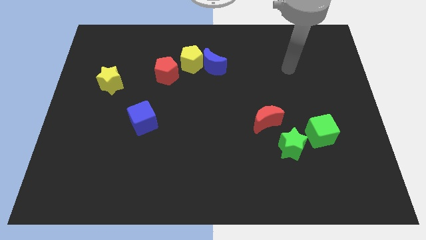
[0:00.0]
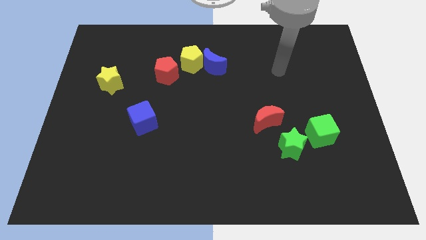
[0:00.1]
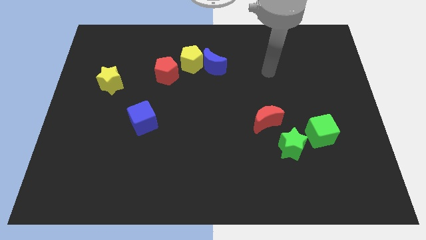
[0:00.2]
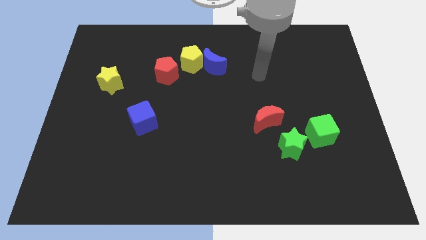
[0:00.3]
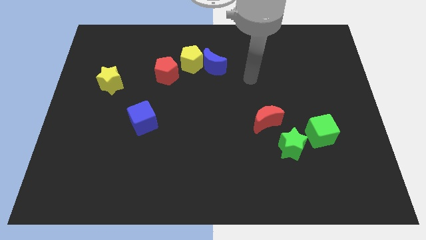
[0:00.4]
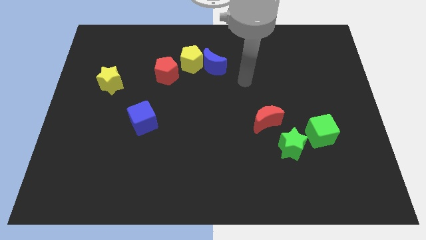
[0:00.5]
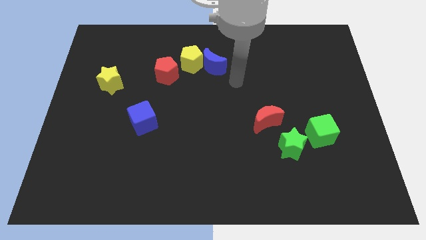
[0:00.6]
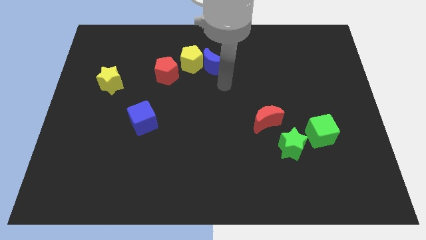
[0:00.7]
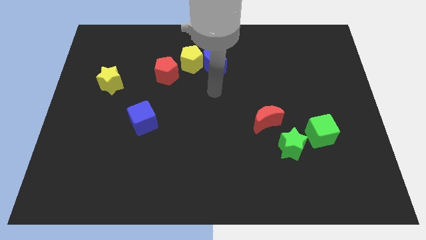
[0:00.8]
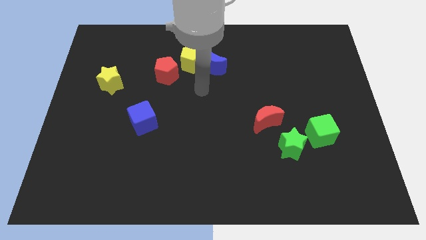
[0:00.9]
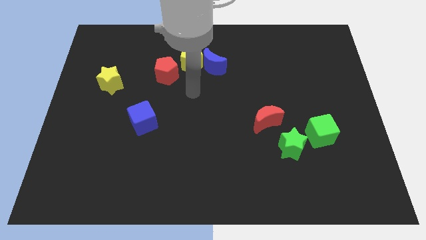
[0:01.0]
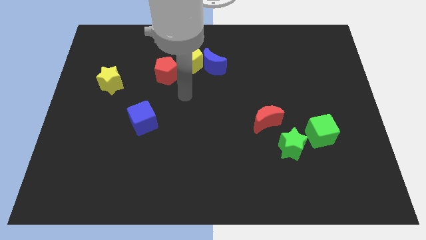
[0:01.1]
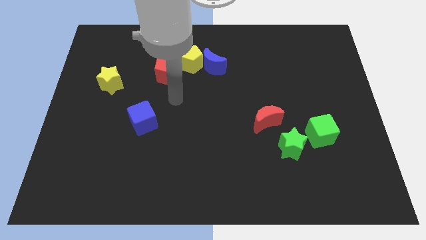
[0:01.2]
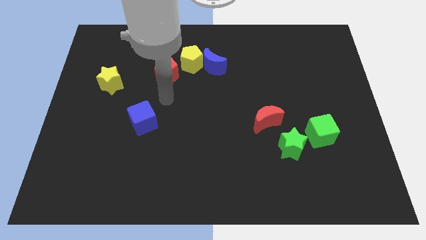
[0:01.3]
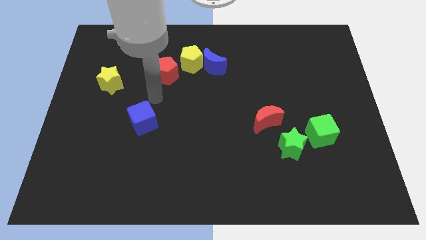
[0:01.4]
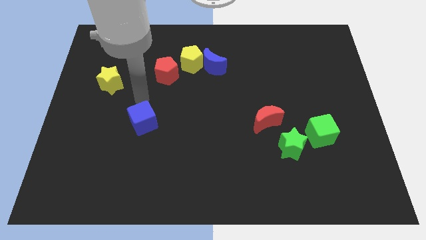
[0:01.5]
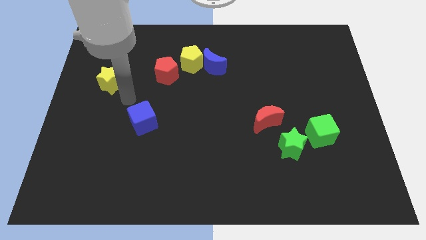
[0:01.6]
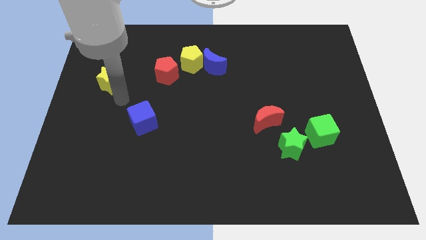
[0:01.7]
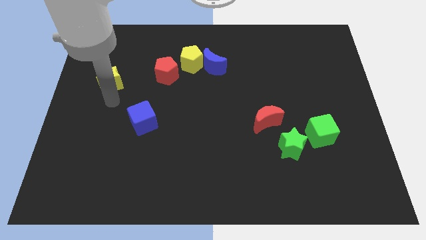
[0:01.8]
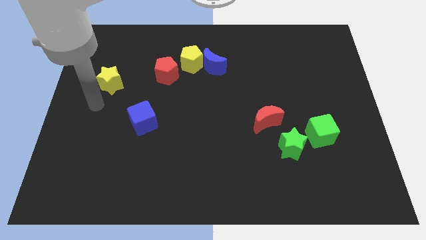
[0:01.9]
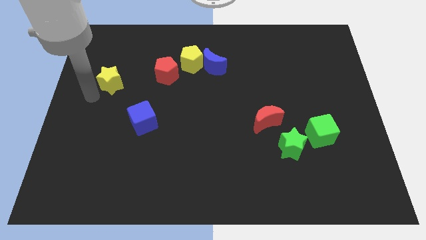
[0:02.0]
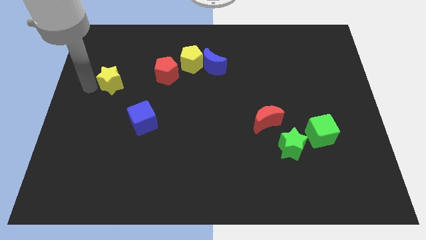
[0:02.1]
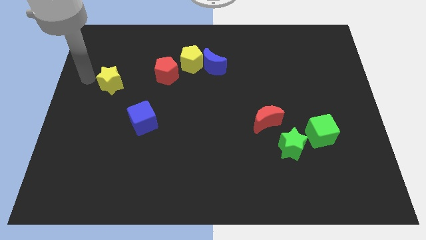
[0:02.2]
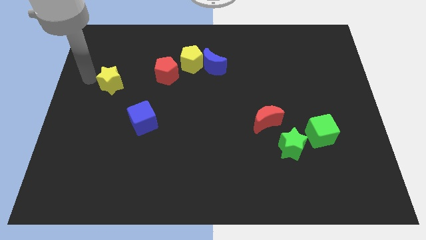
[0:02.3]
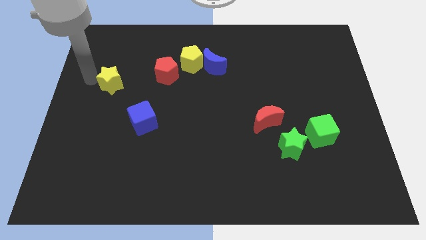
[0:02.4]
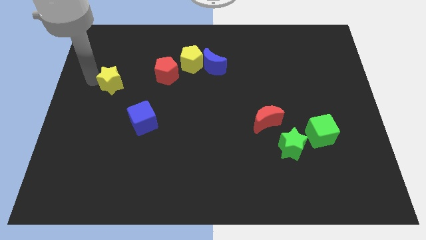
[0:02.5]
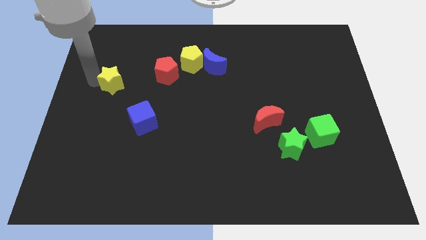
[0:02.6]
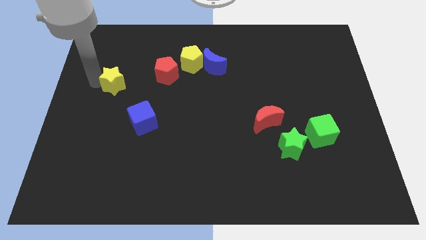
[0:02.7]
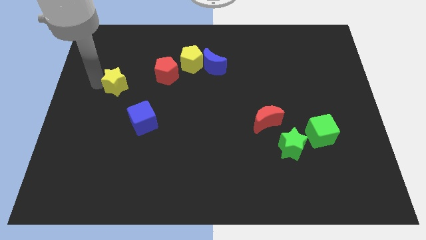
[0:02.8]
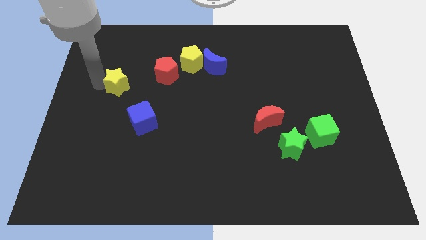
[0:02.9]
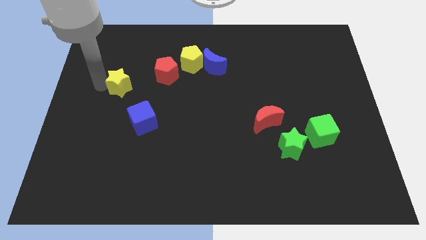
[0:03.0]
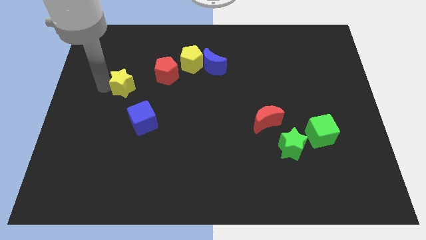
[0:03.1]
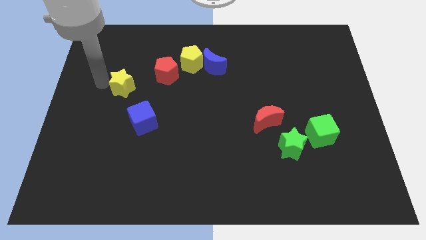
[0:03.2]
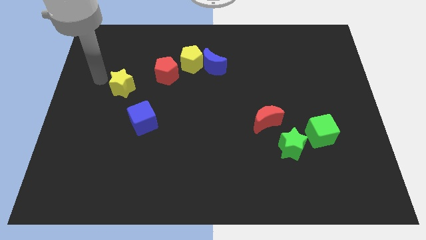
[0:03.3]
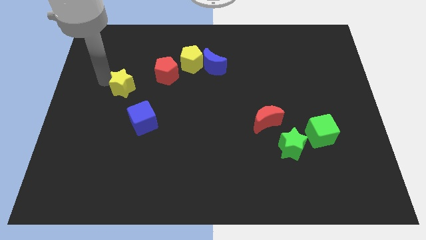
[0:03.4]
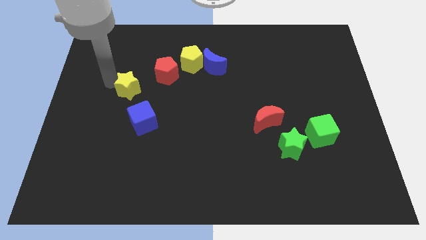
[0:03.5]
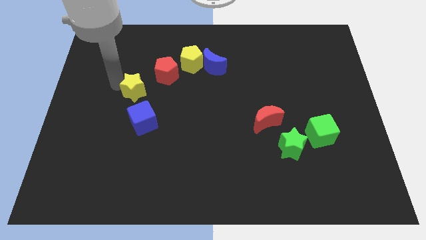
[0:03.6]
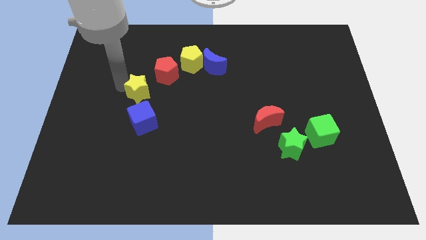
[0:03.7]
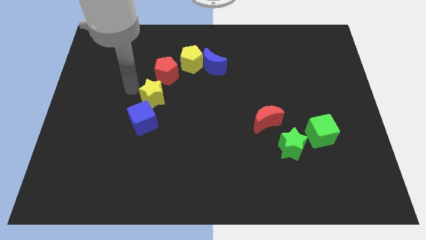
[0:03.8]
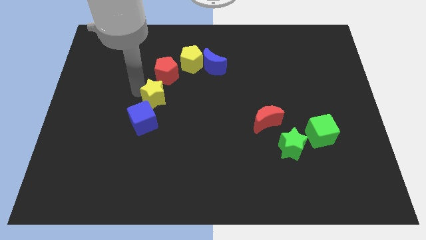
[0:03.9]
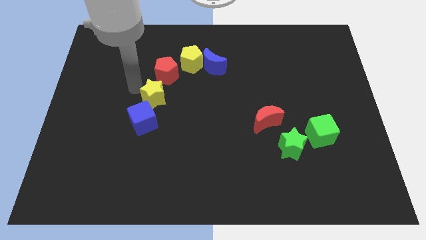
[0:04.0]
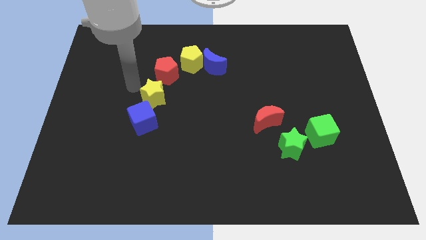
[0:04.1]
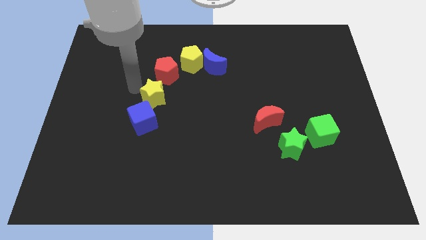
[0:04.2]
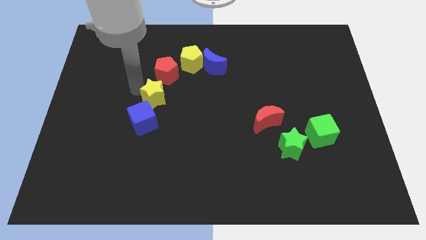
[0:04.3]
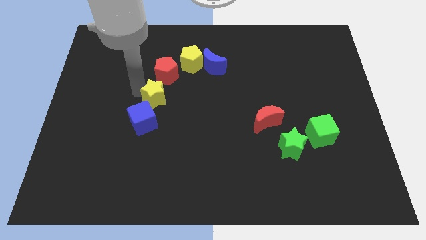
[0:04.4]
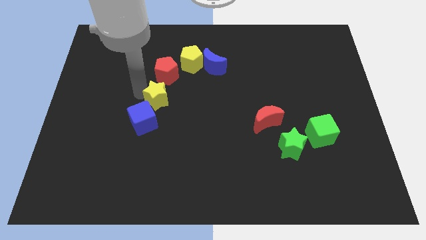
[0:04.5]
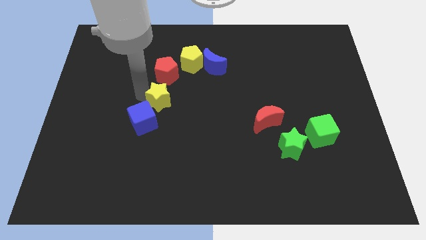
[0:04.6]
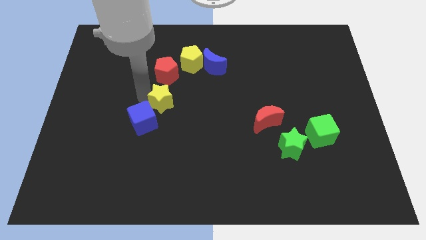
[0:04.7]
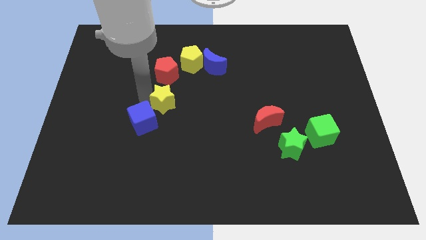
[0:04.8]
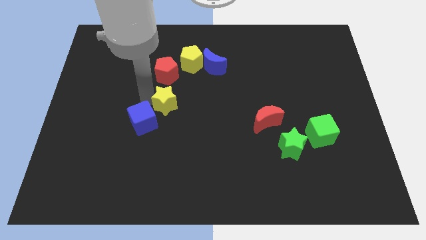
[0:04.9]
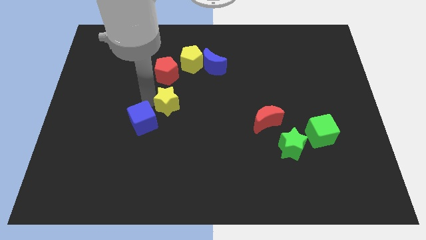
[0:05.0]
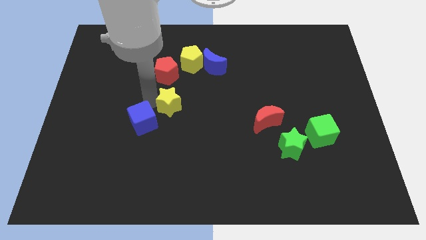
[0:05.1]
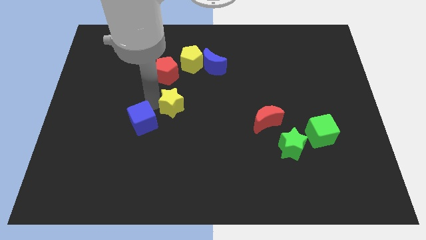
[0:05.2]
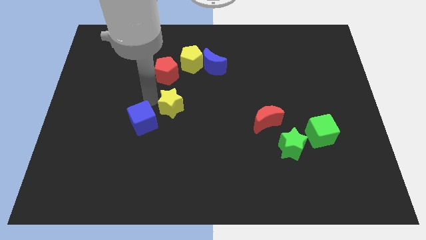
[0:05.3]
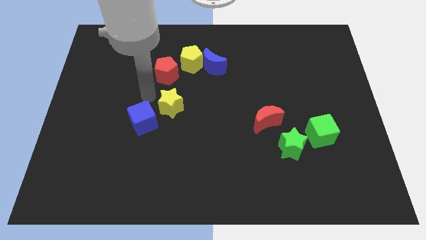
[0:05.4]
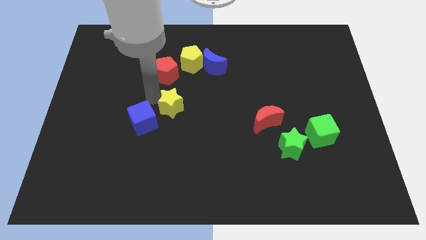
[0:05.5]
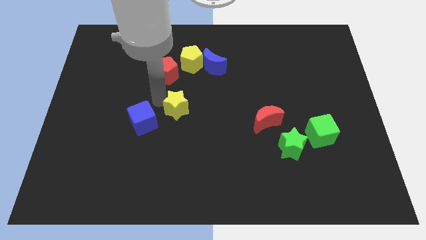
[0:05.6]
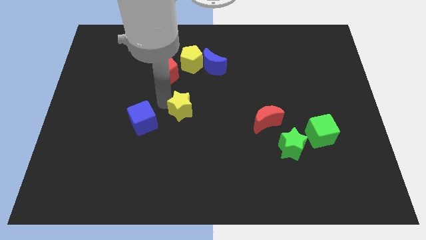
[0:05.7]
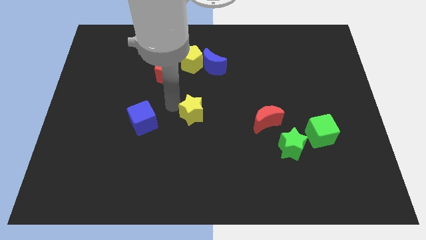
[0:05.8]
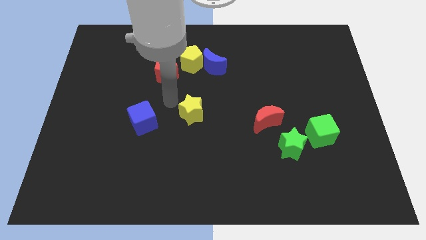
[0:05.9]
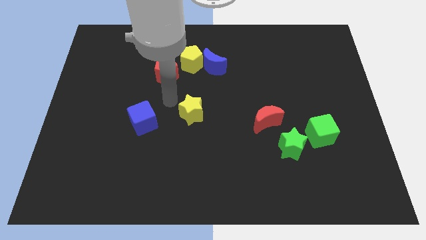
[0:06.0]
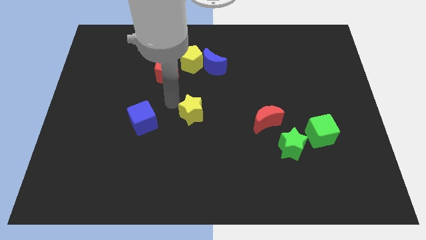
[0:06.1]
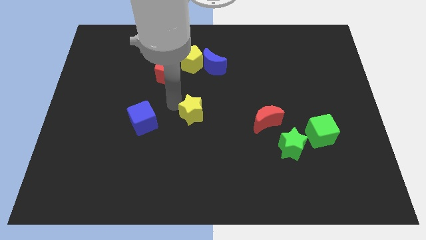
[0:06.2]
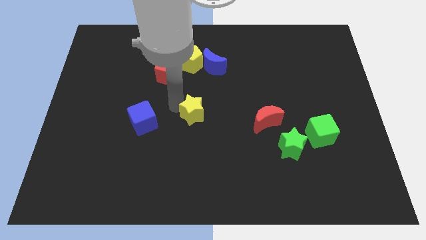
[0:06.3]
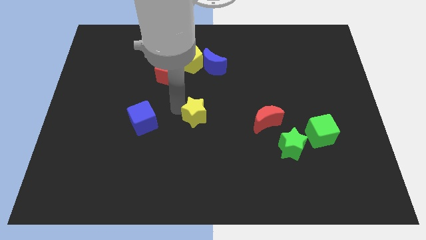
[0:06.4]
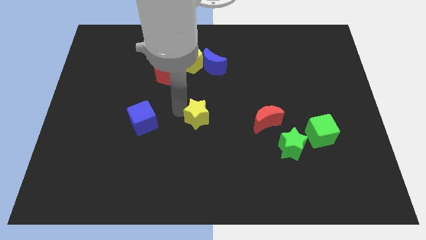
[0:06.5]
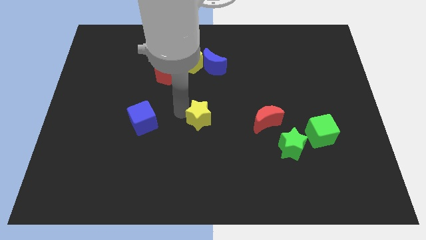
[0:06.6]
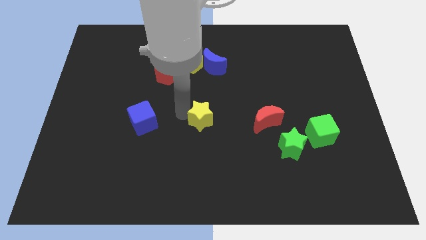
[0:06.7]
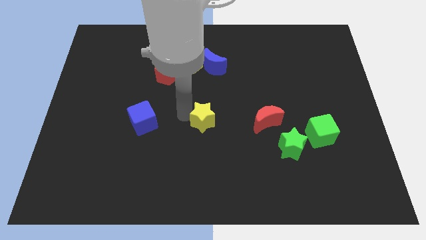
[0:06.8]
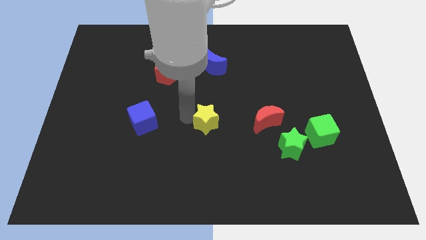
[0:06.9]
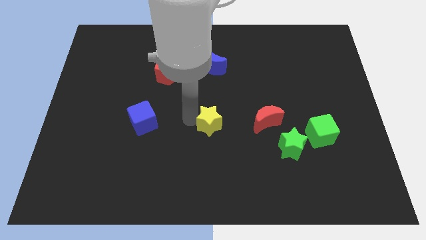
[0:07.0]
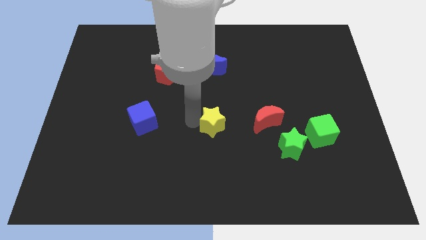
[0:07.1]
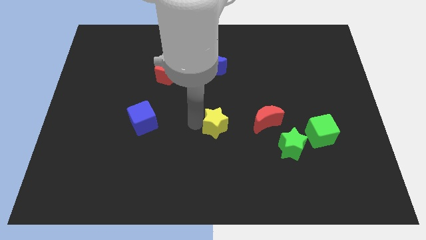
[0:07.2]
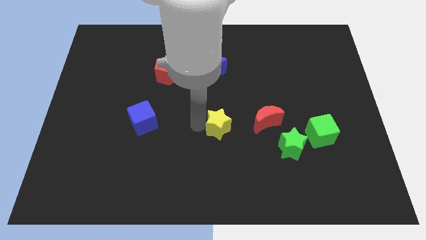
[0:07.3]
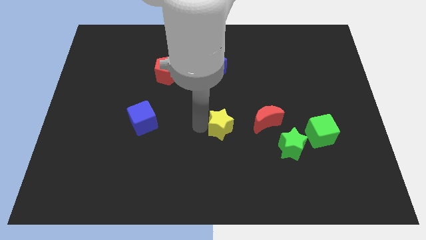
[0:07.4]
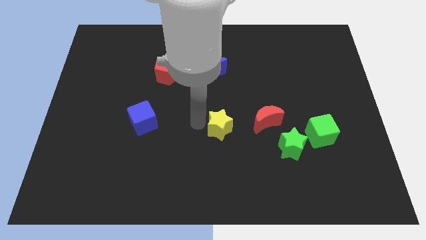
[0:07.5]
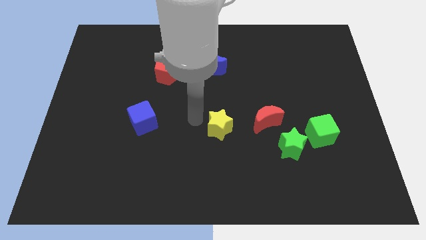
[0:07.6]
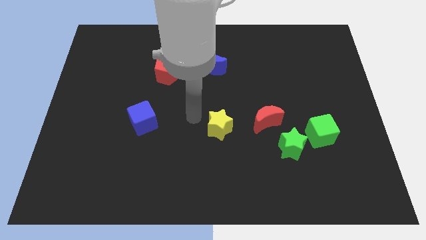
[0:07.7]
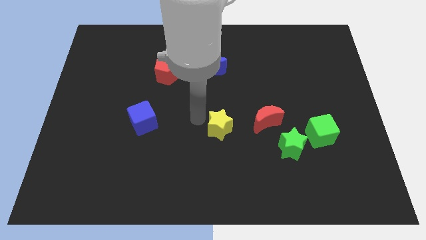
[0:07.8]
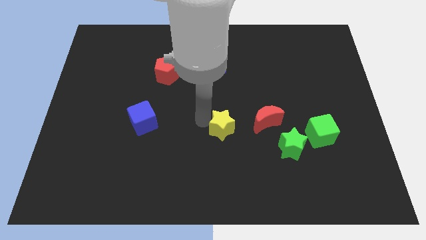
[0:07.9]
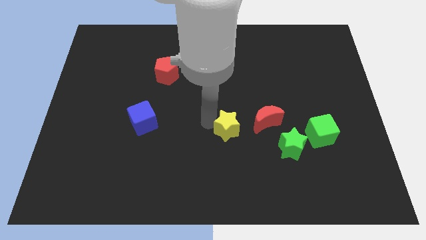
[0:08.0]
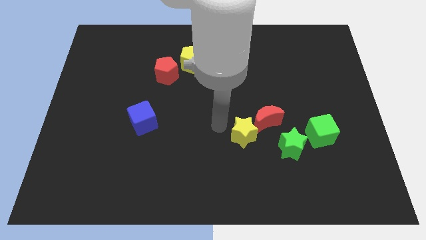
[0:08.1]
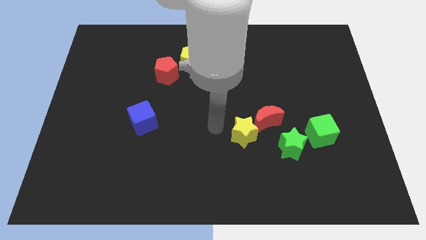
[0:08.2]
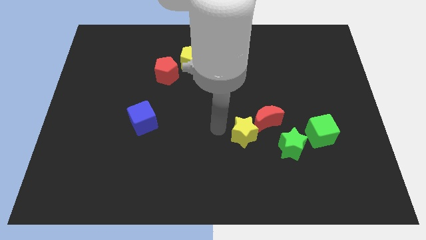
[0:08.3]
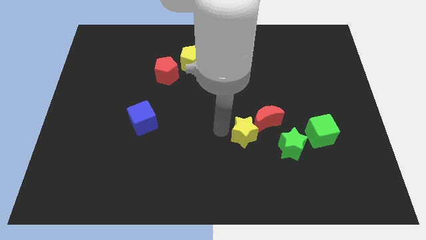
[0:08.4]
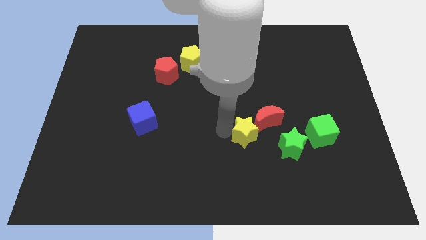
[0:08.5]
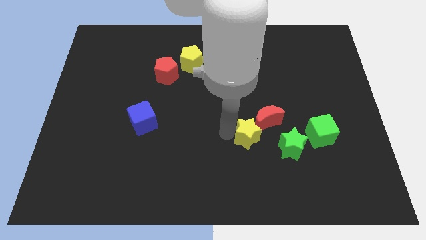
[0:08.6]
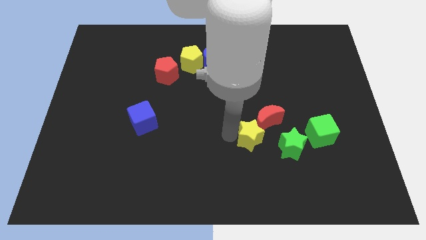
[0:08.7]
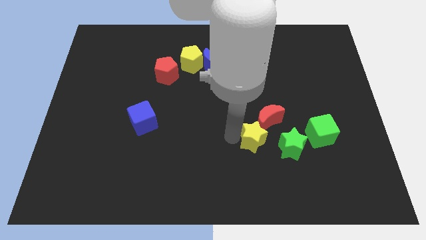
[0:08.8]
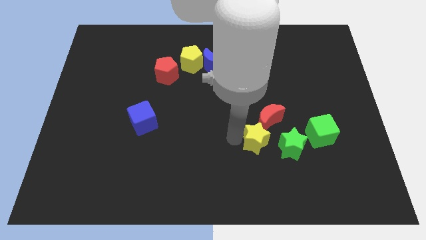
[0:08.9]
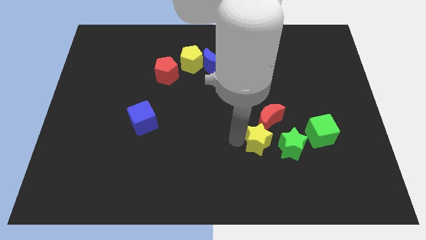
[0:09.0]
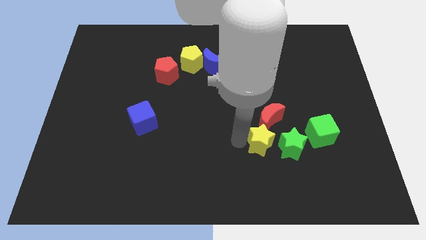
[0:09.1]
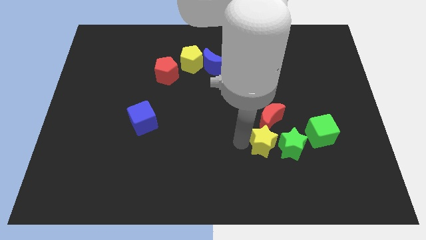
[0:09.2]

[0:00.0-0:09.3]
move the yellow star towards the green star
